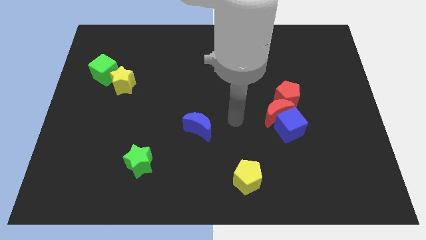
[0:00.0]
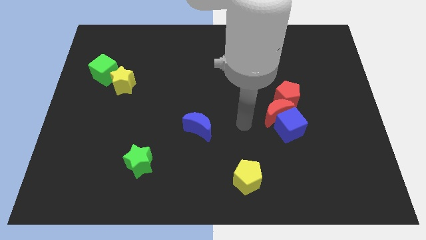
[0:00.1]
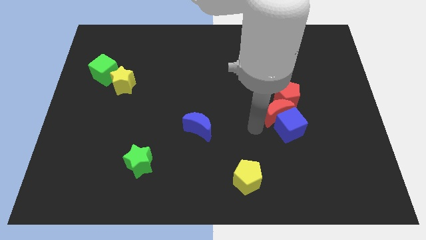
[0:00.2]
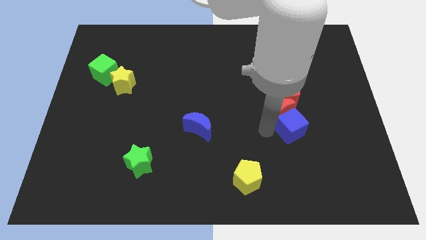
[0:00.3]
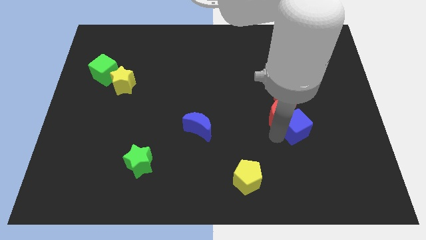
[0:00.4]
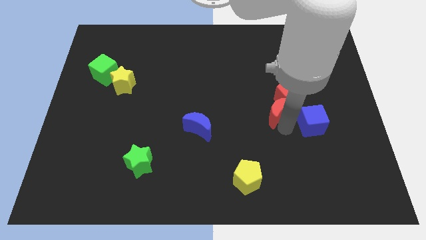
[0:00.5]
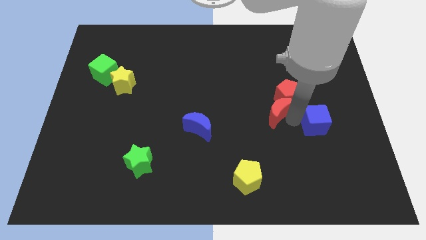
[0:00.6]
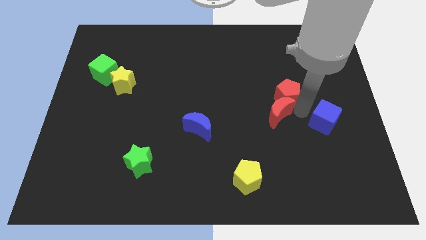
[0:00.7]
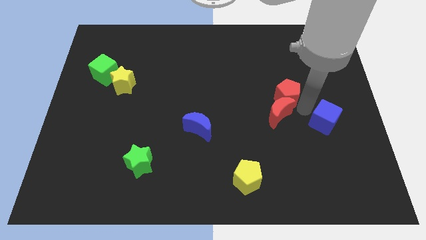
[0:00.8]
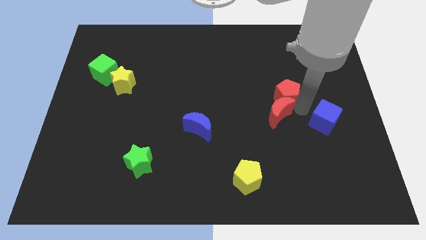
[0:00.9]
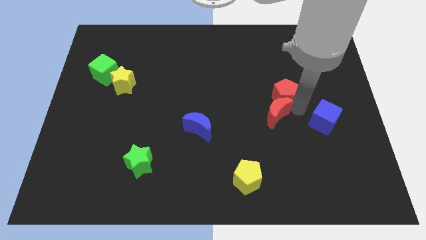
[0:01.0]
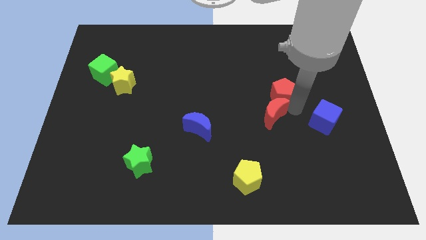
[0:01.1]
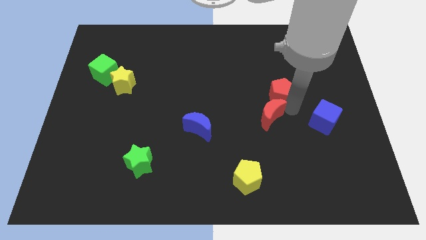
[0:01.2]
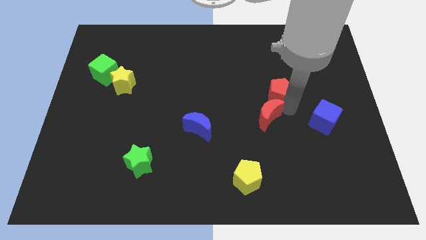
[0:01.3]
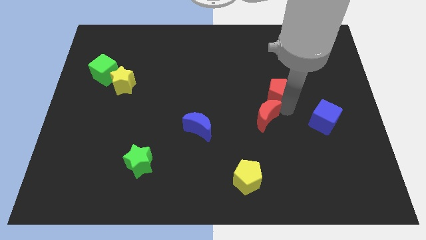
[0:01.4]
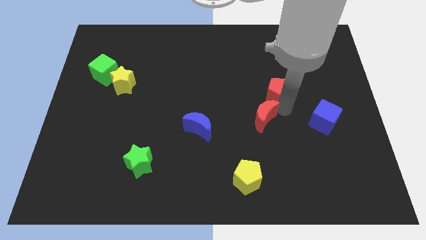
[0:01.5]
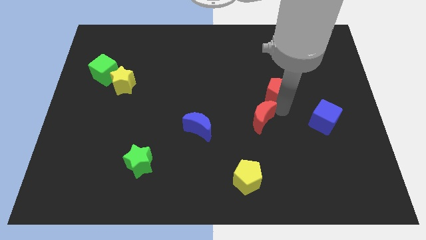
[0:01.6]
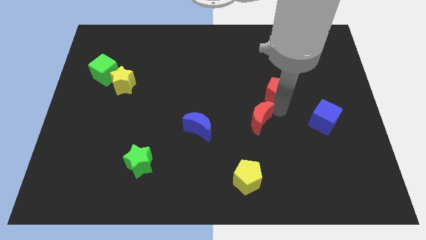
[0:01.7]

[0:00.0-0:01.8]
move the red moon away from the blue cube and red pentagon

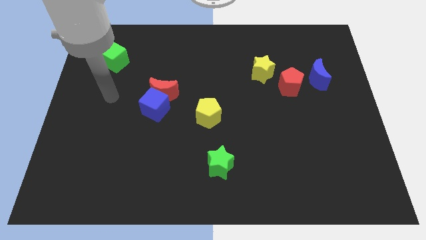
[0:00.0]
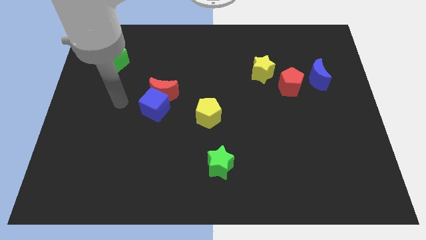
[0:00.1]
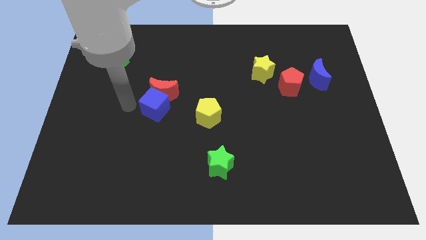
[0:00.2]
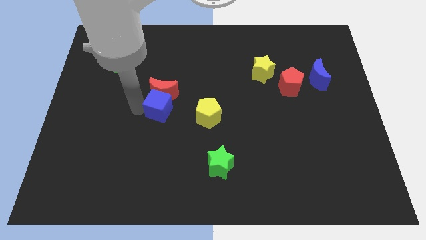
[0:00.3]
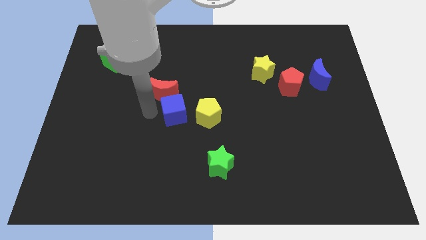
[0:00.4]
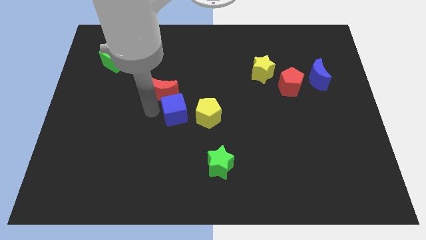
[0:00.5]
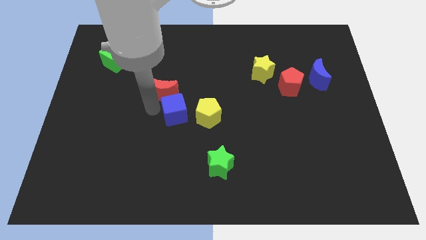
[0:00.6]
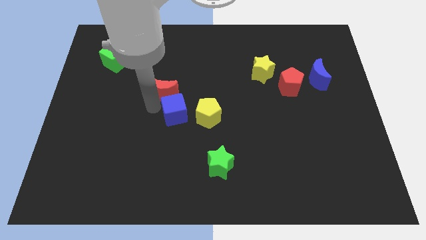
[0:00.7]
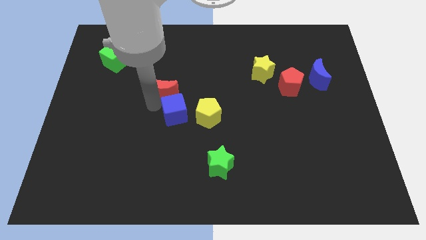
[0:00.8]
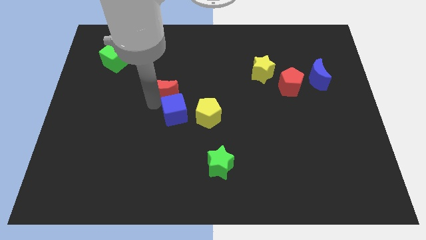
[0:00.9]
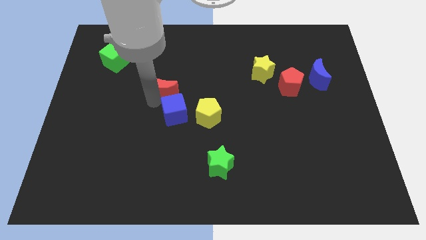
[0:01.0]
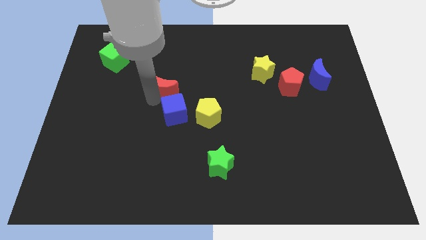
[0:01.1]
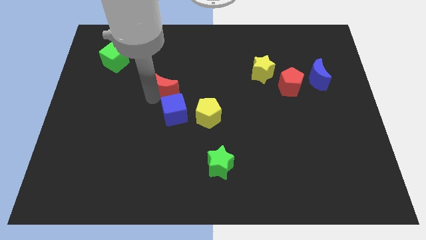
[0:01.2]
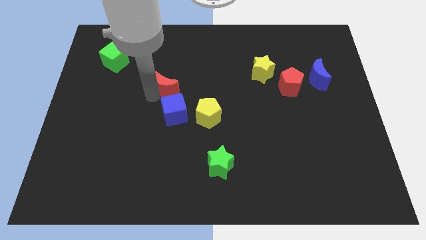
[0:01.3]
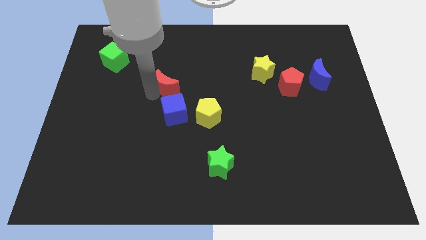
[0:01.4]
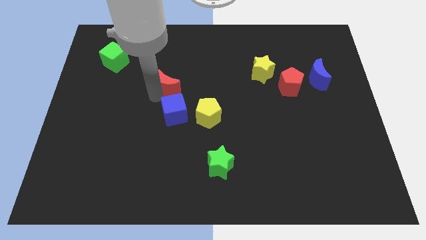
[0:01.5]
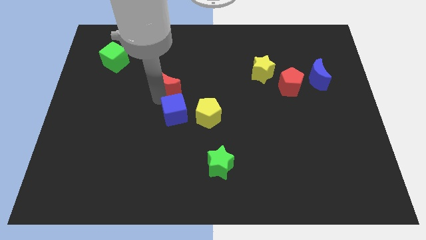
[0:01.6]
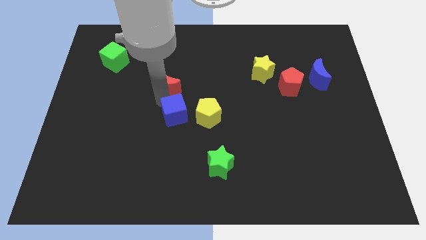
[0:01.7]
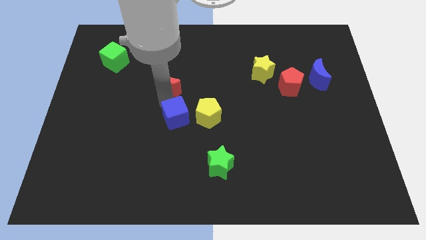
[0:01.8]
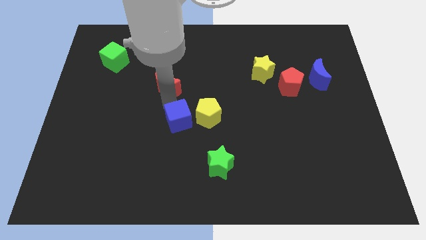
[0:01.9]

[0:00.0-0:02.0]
pull the red moon apart from the blue cube

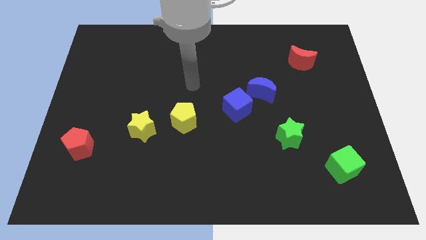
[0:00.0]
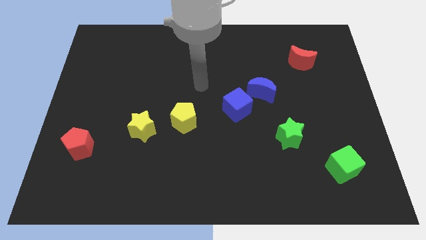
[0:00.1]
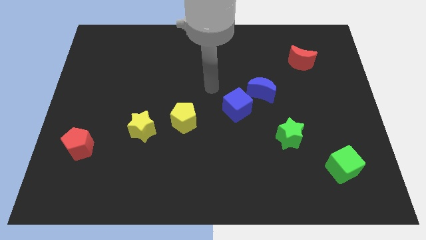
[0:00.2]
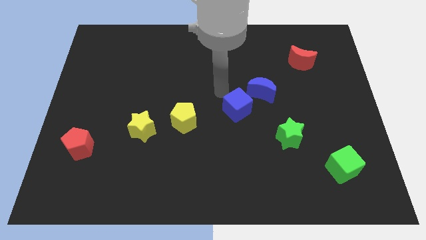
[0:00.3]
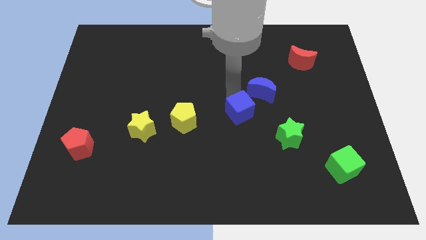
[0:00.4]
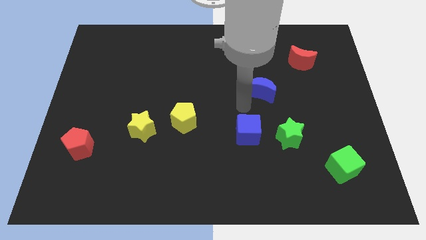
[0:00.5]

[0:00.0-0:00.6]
pull the blue moon apart from the blue cube

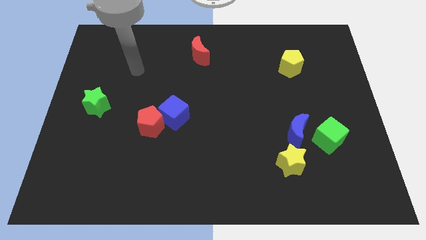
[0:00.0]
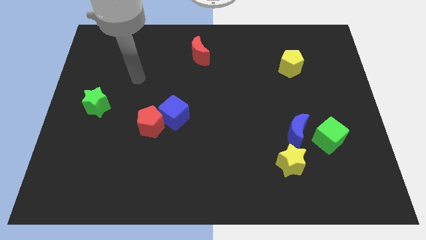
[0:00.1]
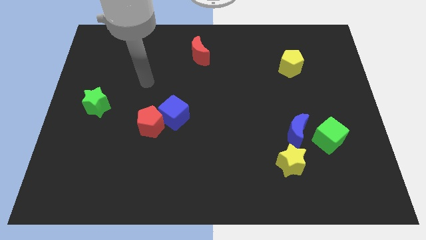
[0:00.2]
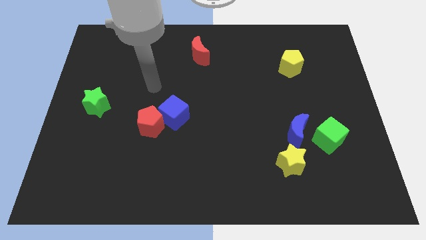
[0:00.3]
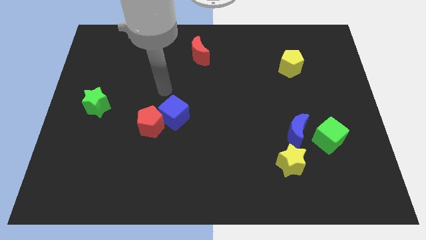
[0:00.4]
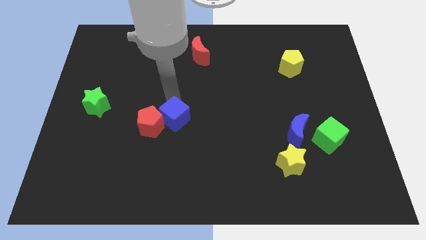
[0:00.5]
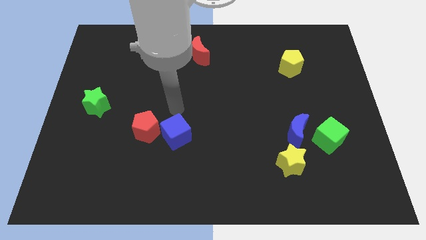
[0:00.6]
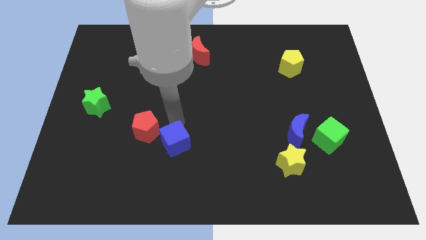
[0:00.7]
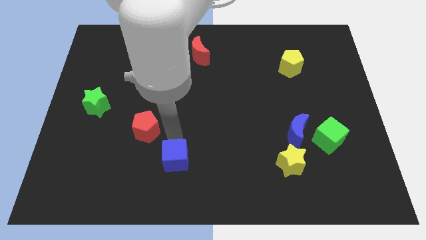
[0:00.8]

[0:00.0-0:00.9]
pull the red pentagon apart from the blue cube

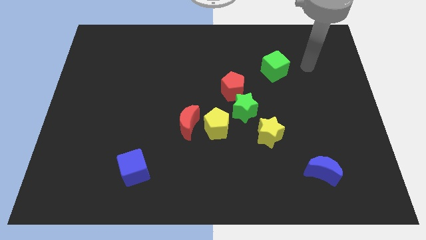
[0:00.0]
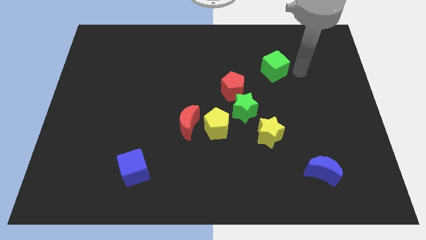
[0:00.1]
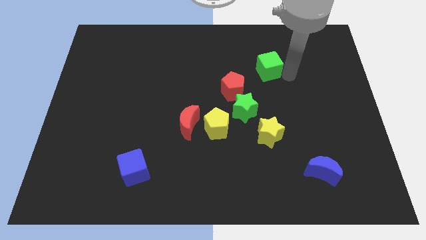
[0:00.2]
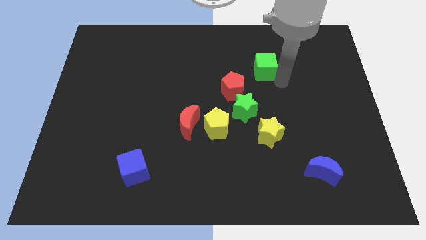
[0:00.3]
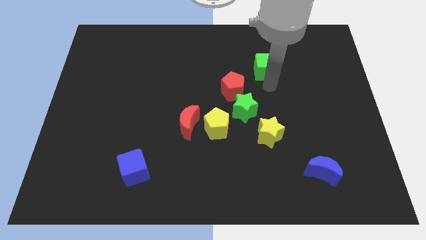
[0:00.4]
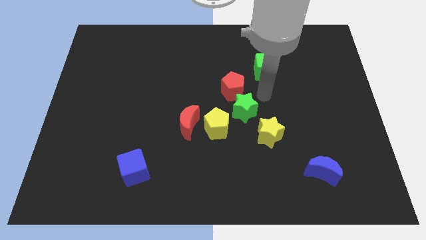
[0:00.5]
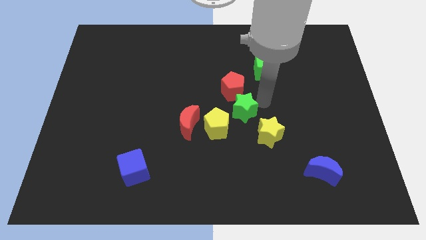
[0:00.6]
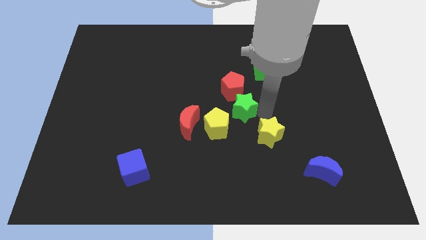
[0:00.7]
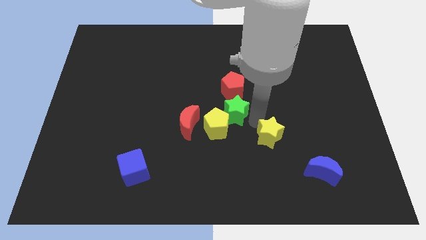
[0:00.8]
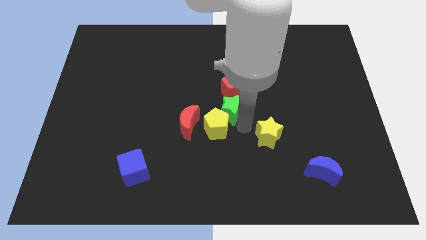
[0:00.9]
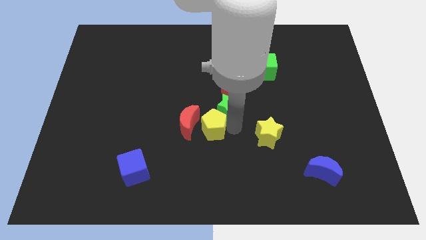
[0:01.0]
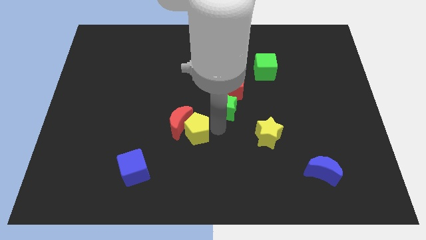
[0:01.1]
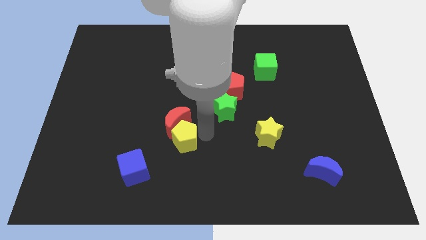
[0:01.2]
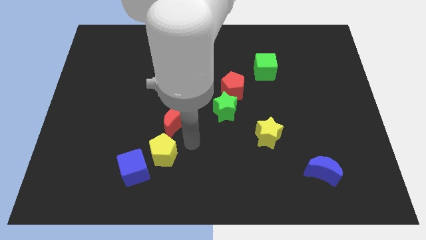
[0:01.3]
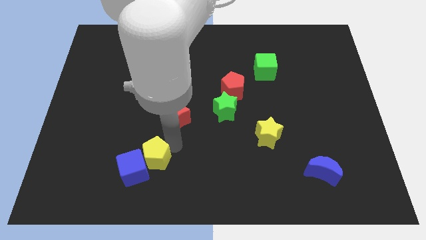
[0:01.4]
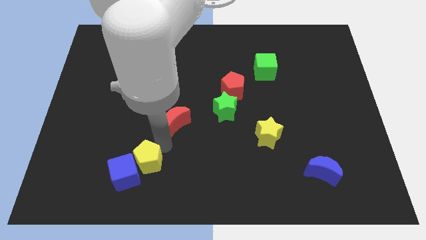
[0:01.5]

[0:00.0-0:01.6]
move the red moon away from the yellow pentagon

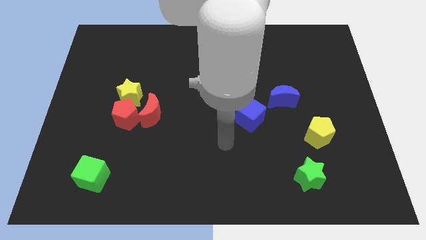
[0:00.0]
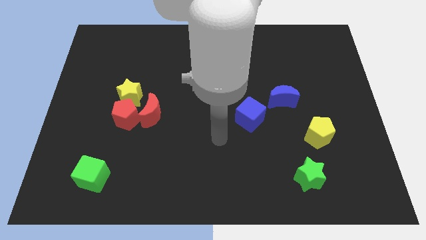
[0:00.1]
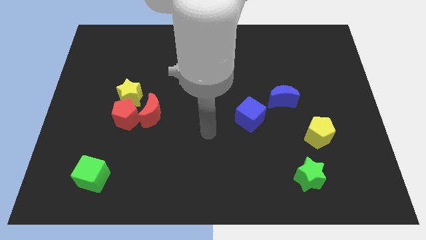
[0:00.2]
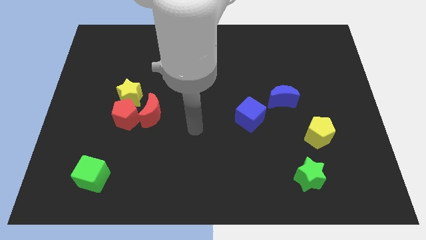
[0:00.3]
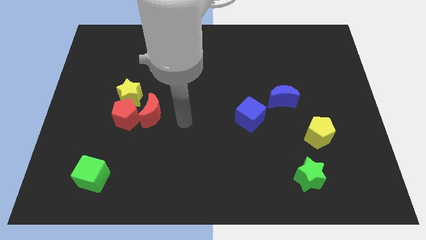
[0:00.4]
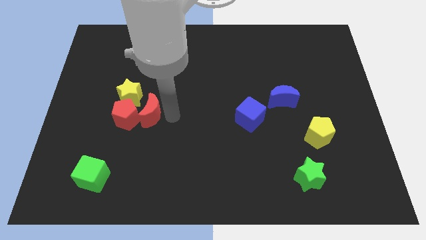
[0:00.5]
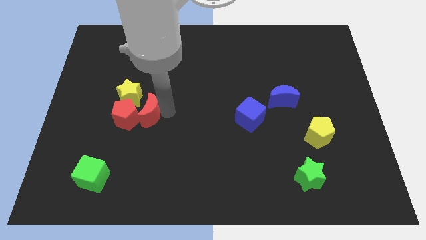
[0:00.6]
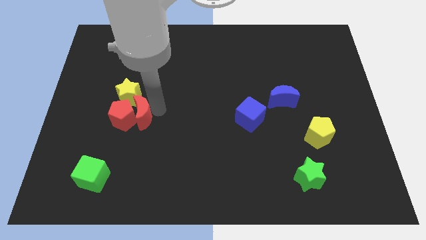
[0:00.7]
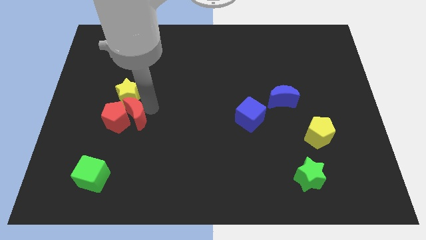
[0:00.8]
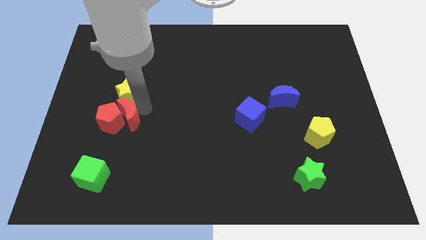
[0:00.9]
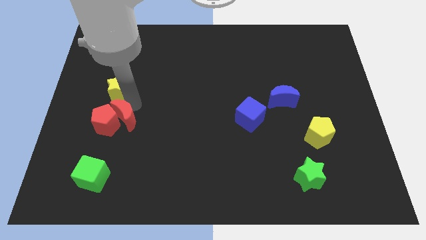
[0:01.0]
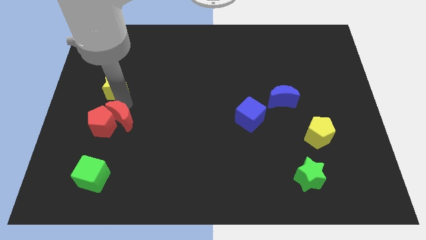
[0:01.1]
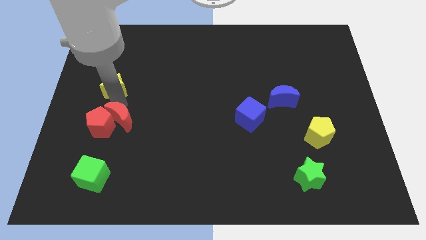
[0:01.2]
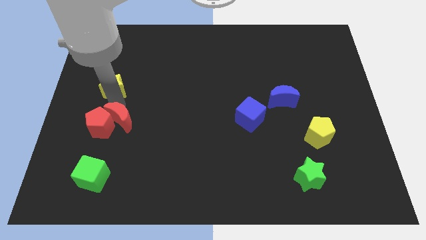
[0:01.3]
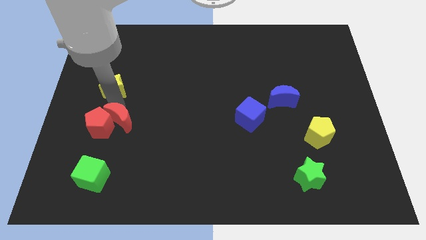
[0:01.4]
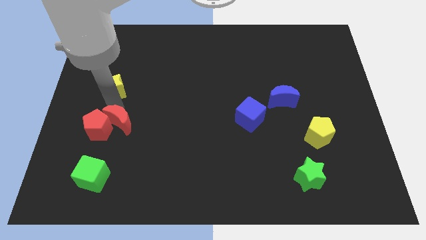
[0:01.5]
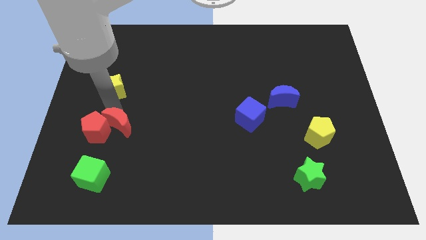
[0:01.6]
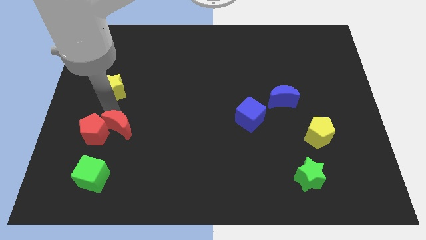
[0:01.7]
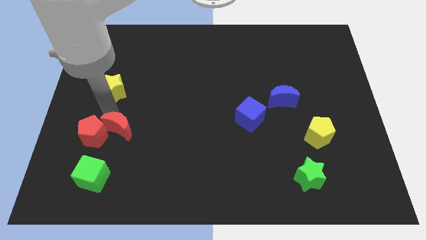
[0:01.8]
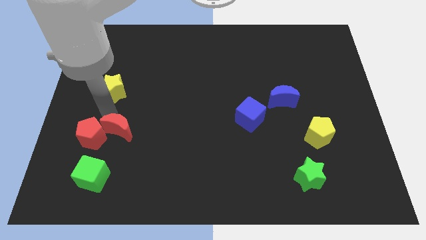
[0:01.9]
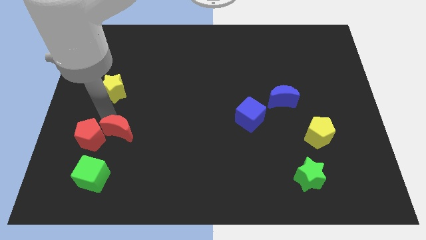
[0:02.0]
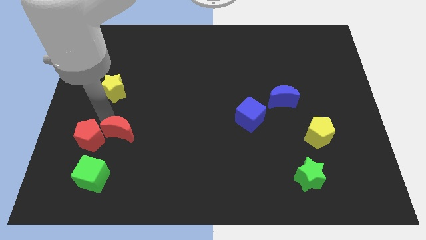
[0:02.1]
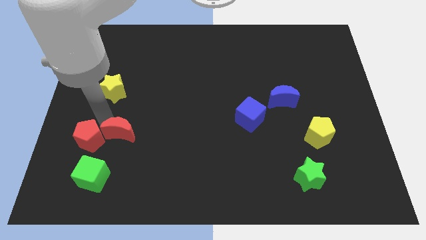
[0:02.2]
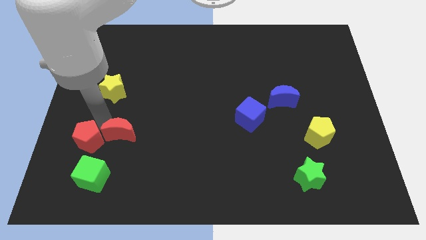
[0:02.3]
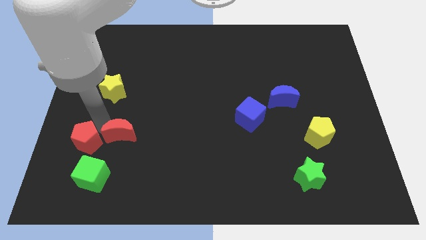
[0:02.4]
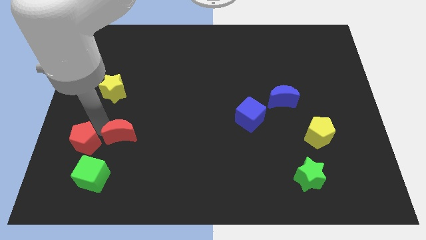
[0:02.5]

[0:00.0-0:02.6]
move the red pentagon away from the yellow star and red moon
